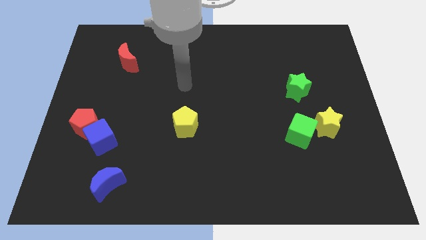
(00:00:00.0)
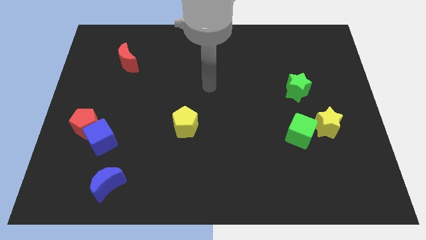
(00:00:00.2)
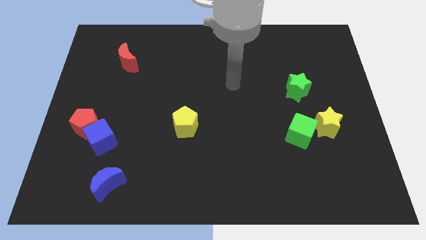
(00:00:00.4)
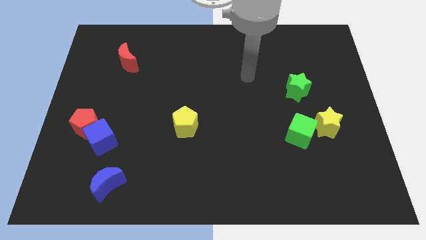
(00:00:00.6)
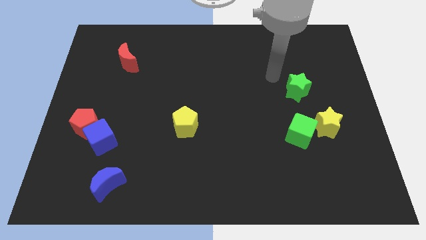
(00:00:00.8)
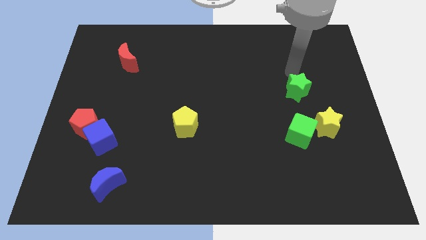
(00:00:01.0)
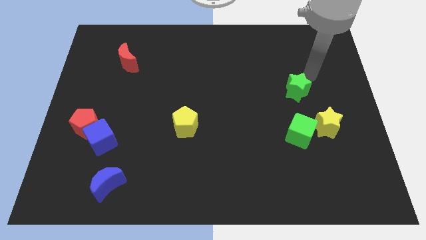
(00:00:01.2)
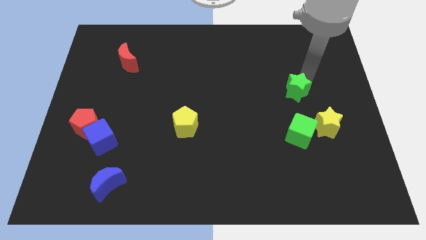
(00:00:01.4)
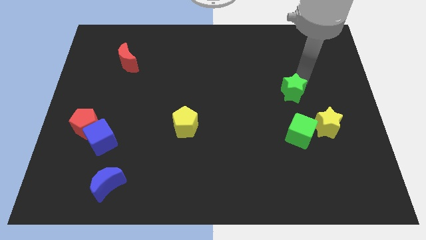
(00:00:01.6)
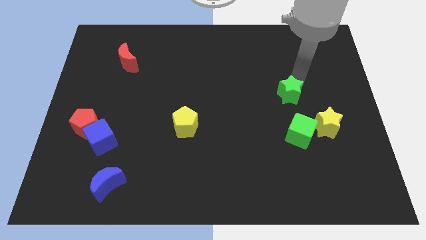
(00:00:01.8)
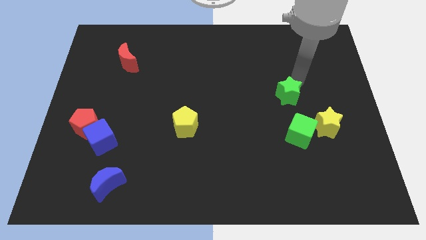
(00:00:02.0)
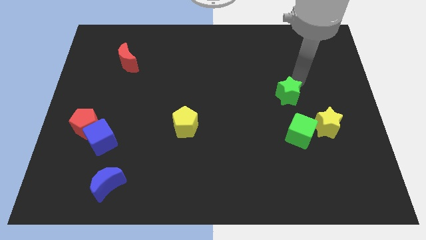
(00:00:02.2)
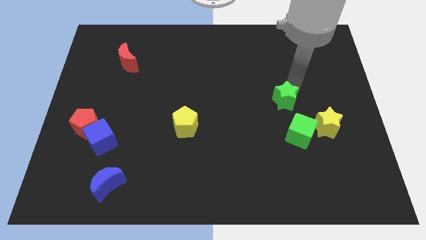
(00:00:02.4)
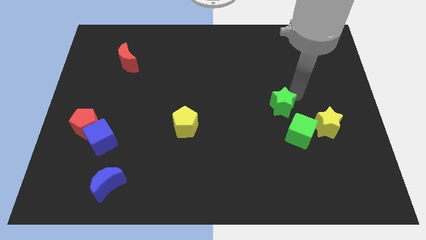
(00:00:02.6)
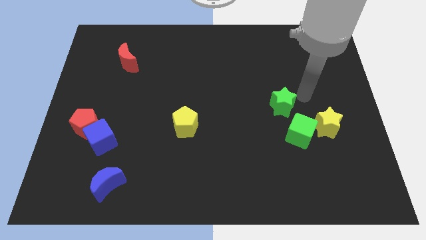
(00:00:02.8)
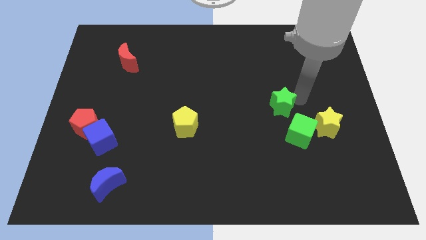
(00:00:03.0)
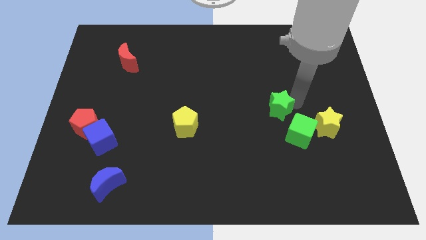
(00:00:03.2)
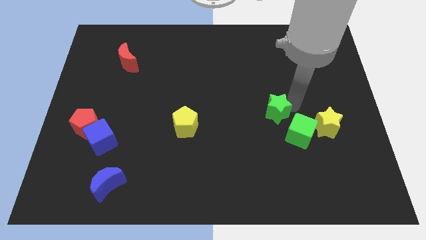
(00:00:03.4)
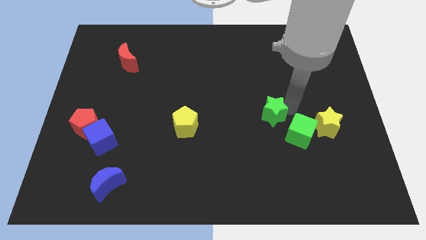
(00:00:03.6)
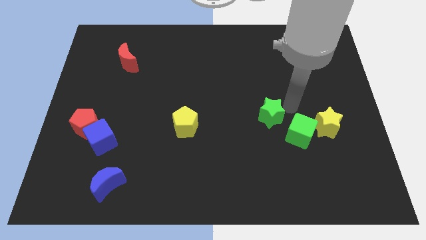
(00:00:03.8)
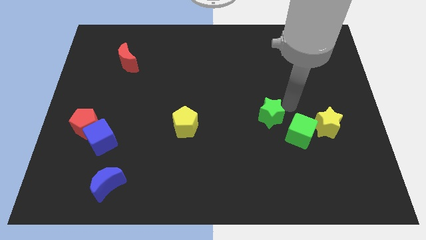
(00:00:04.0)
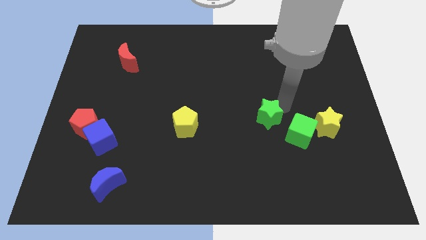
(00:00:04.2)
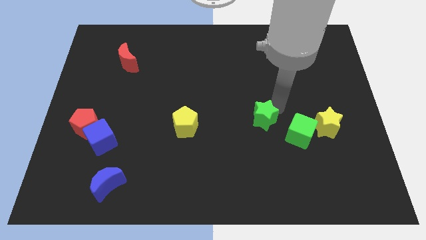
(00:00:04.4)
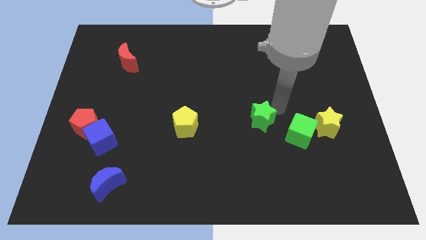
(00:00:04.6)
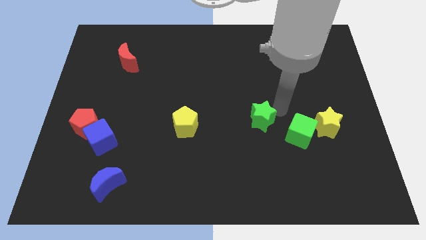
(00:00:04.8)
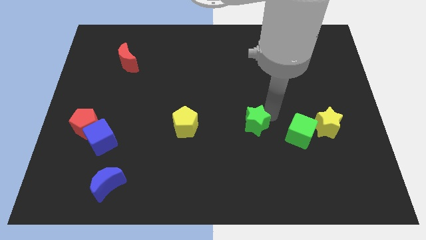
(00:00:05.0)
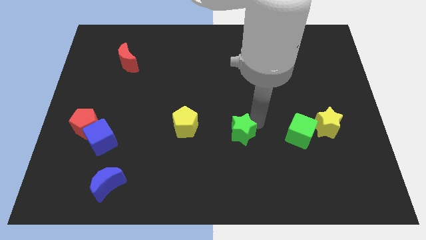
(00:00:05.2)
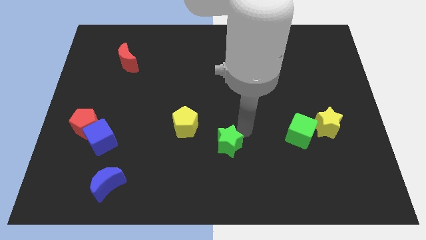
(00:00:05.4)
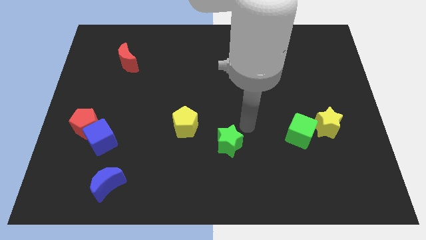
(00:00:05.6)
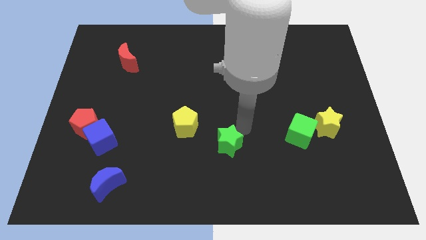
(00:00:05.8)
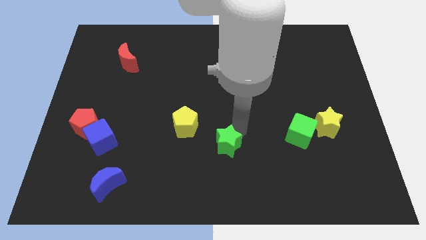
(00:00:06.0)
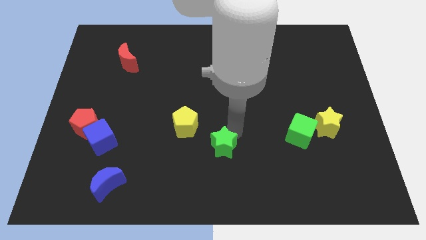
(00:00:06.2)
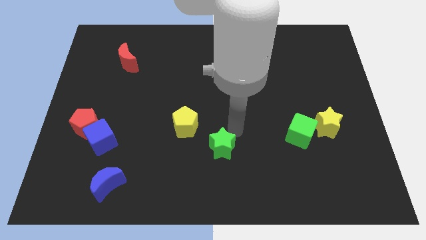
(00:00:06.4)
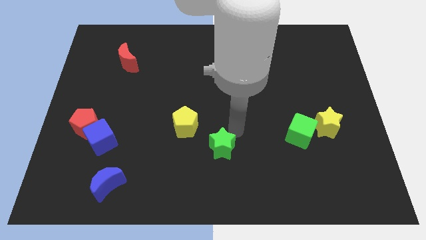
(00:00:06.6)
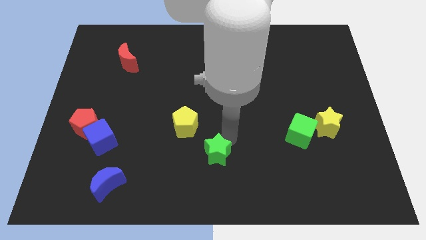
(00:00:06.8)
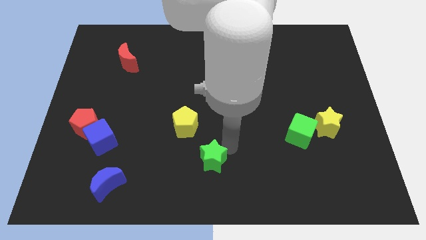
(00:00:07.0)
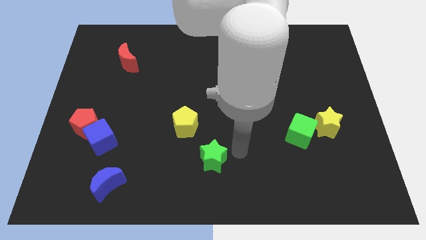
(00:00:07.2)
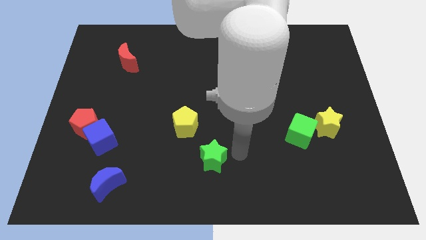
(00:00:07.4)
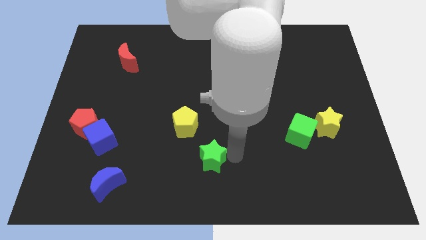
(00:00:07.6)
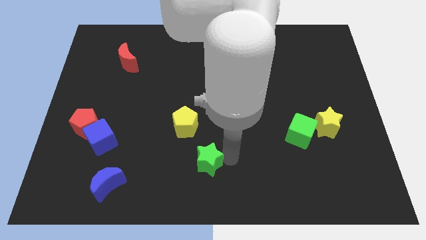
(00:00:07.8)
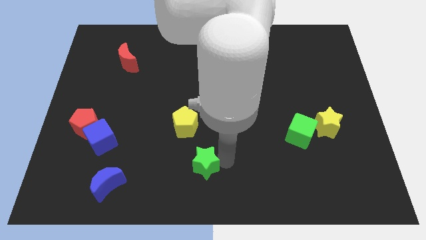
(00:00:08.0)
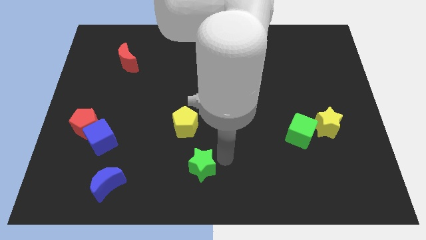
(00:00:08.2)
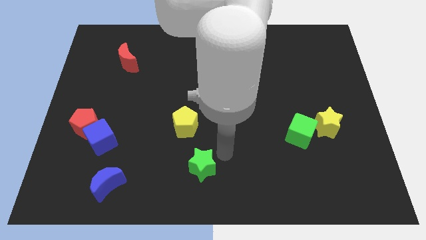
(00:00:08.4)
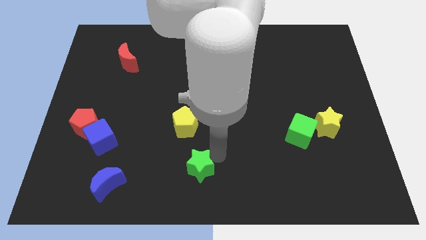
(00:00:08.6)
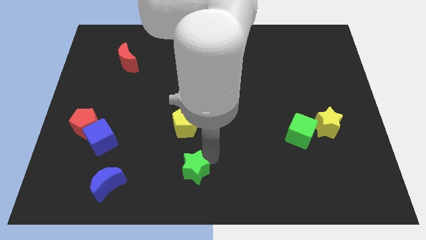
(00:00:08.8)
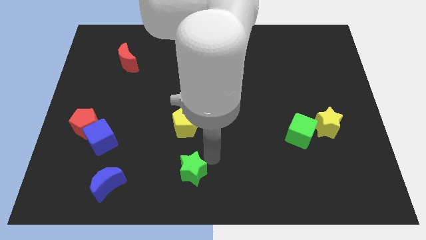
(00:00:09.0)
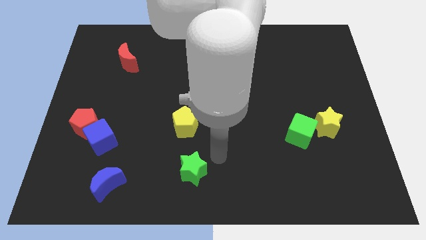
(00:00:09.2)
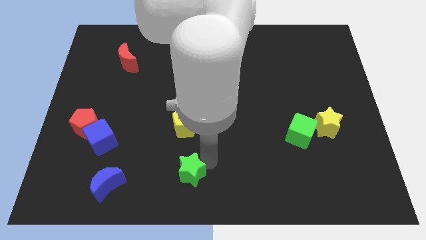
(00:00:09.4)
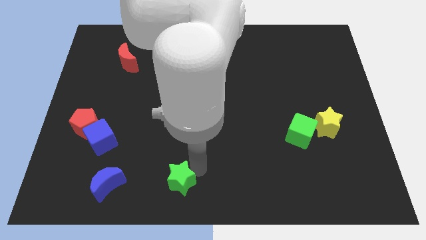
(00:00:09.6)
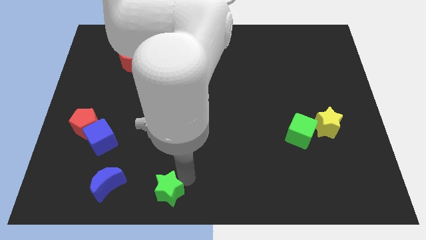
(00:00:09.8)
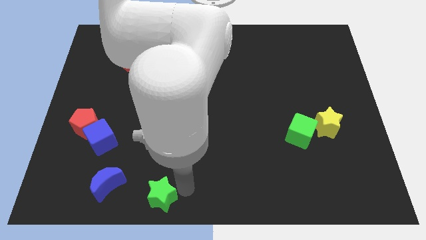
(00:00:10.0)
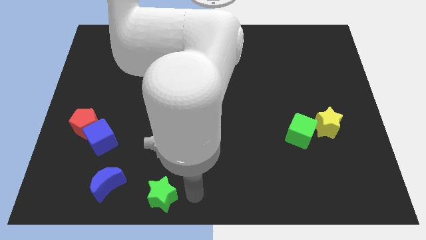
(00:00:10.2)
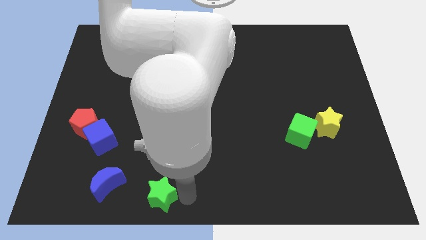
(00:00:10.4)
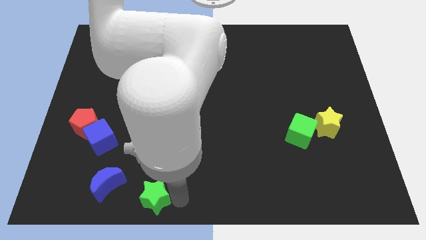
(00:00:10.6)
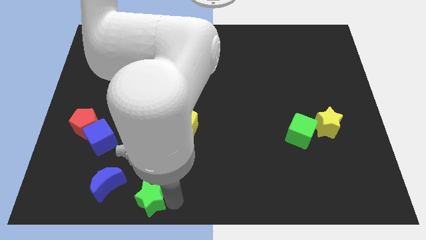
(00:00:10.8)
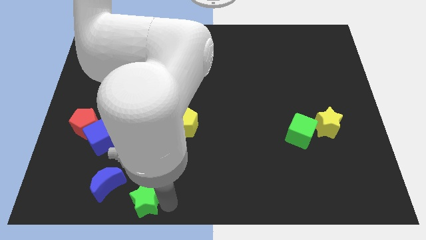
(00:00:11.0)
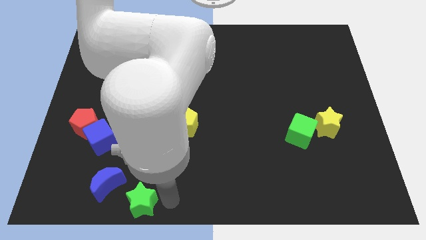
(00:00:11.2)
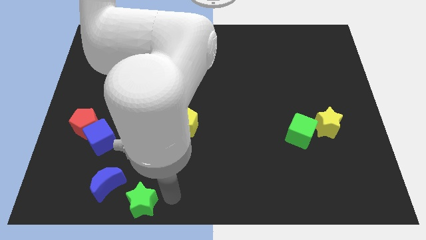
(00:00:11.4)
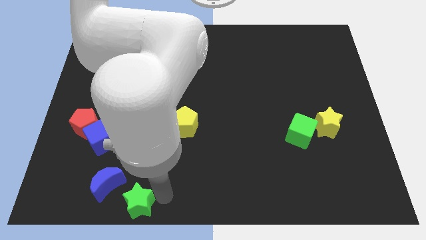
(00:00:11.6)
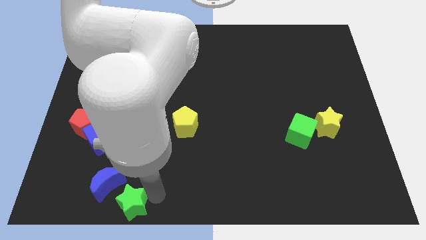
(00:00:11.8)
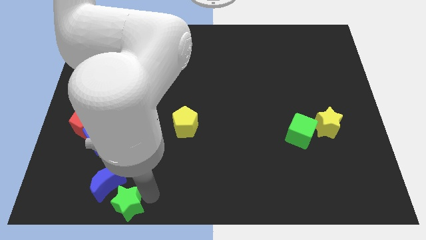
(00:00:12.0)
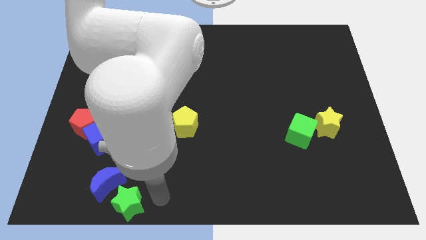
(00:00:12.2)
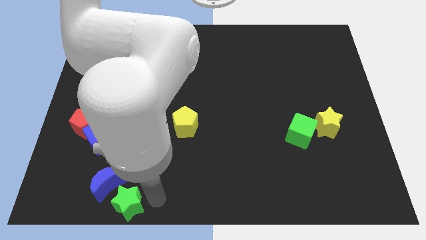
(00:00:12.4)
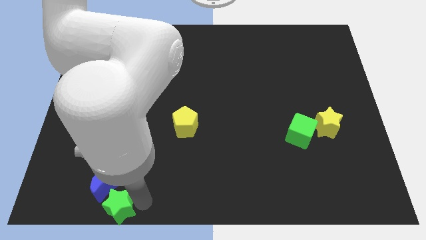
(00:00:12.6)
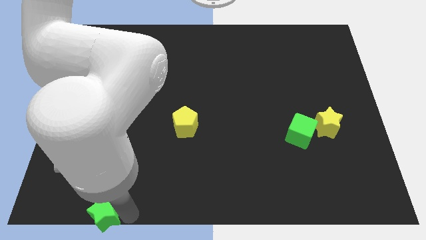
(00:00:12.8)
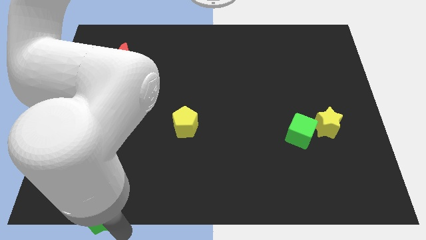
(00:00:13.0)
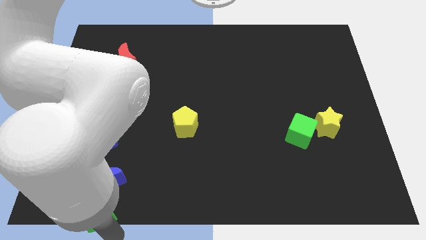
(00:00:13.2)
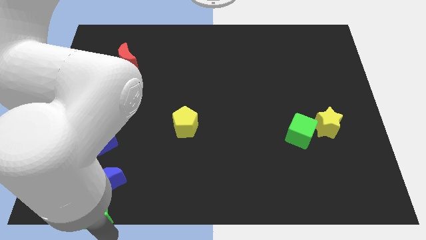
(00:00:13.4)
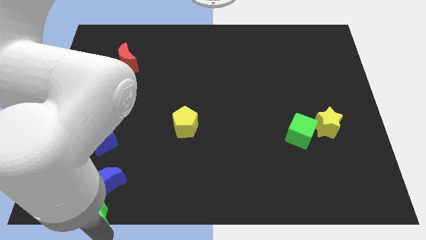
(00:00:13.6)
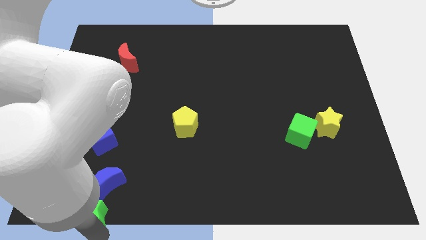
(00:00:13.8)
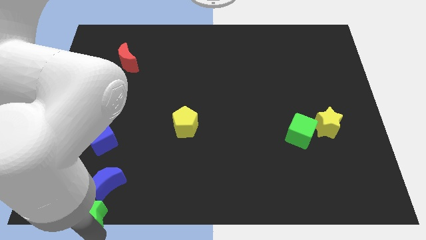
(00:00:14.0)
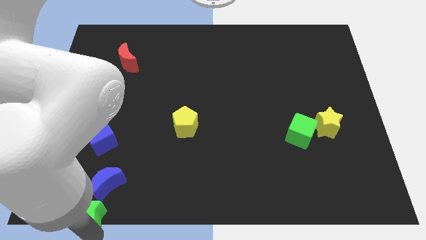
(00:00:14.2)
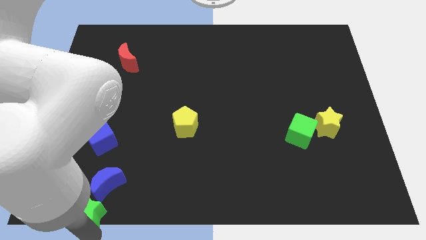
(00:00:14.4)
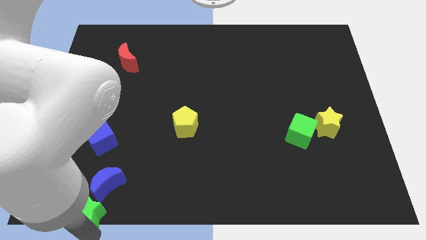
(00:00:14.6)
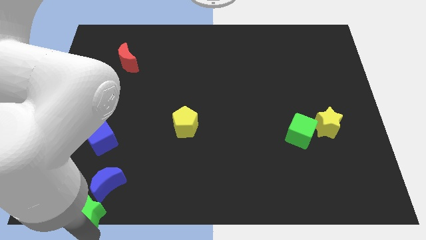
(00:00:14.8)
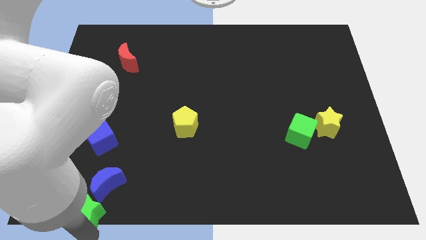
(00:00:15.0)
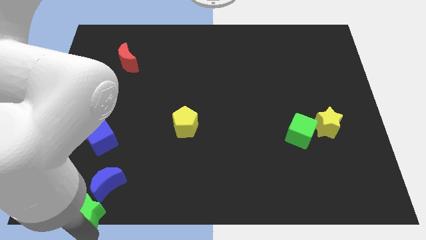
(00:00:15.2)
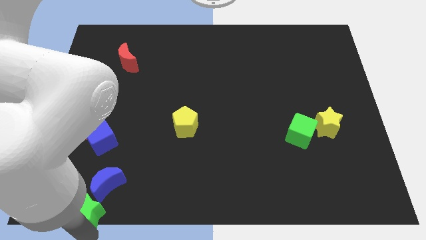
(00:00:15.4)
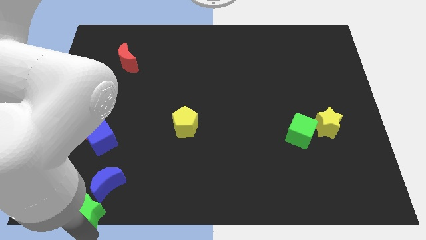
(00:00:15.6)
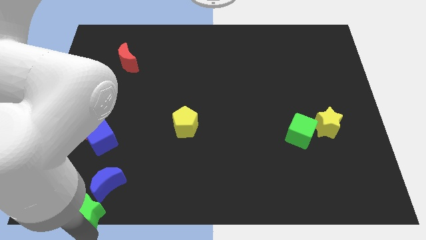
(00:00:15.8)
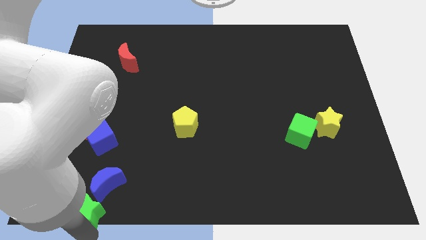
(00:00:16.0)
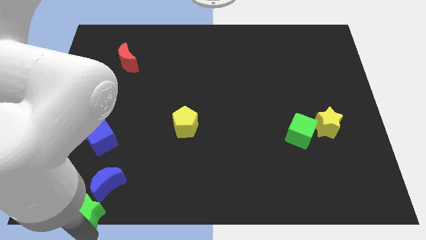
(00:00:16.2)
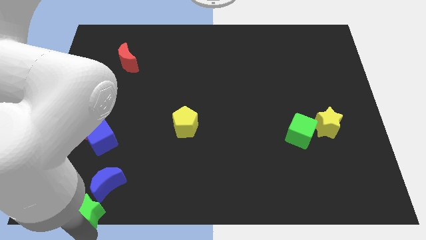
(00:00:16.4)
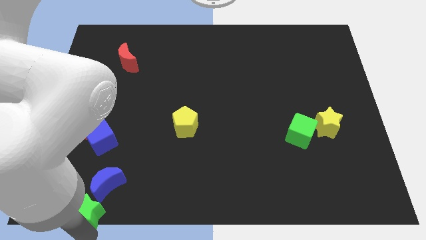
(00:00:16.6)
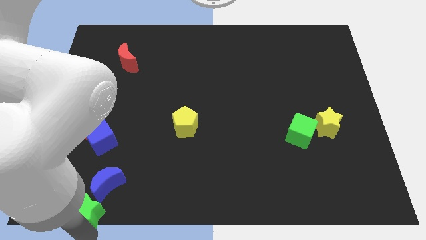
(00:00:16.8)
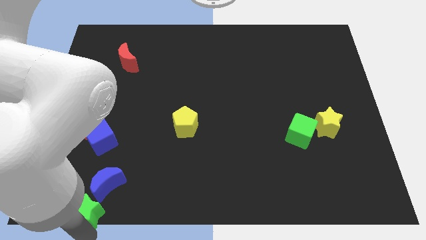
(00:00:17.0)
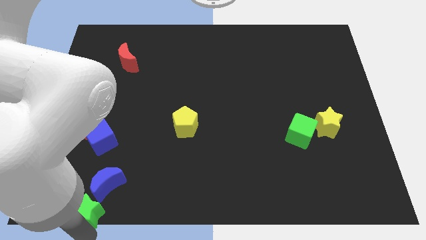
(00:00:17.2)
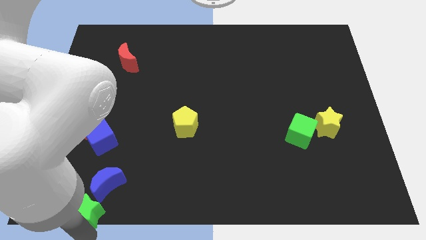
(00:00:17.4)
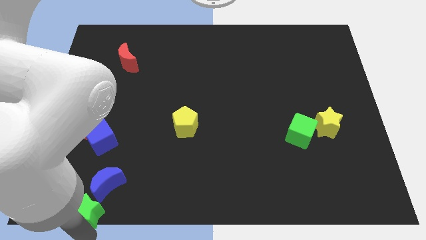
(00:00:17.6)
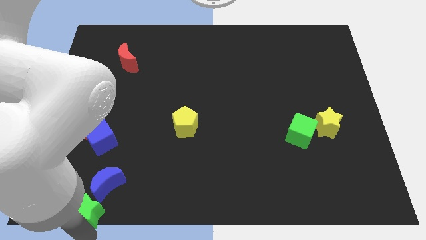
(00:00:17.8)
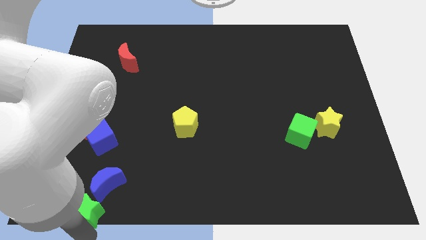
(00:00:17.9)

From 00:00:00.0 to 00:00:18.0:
slide the green star to the bottom of the blue cube
